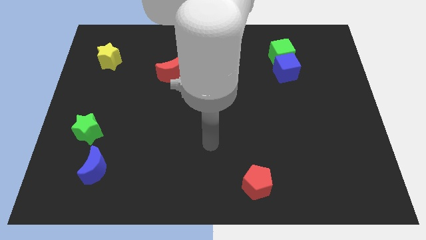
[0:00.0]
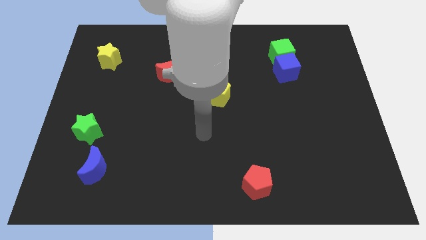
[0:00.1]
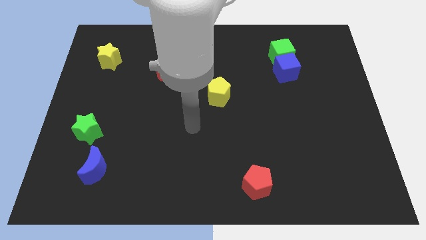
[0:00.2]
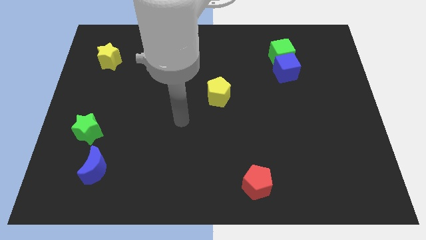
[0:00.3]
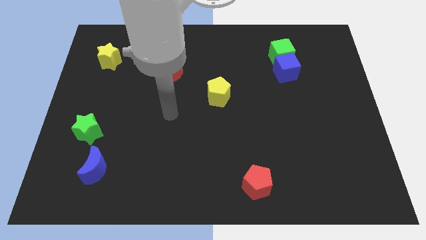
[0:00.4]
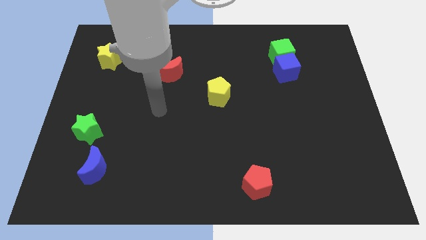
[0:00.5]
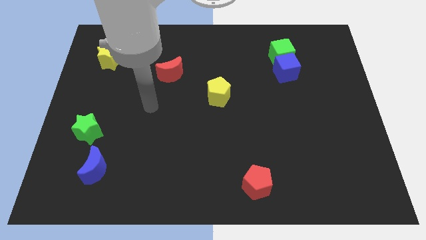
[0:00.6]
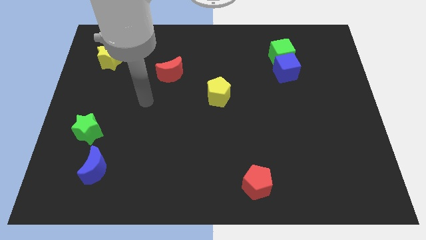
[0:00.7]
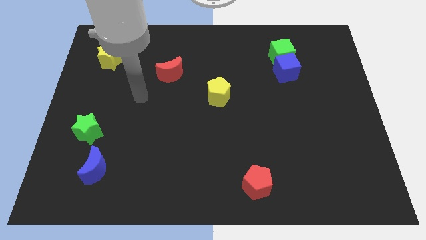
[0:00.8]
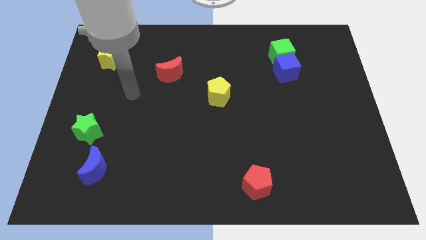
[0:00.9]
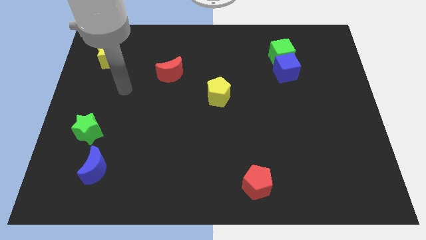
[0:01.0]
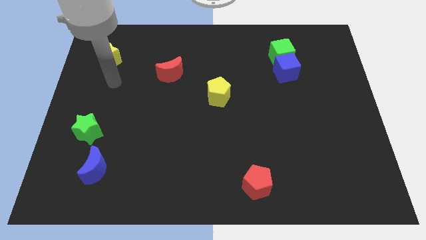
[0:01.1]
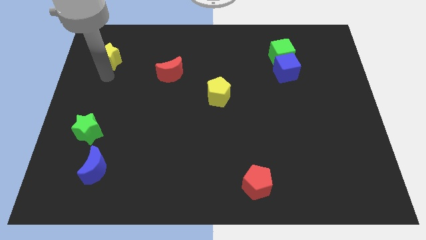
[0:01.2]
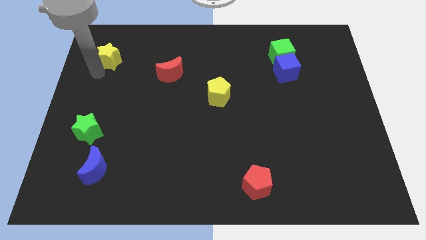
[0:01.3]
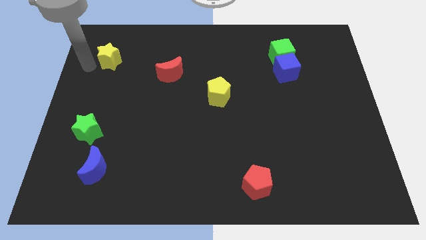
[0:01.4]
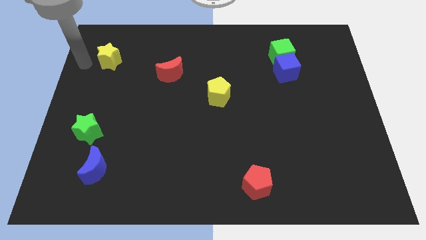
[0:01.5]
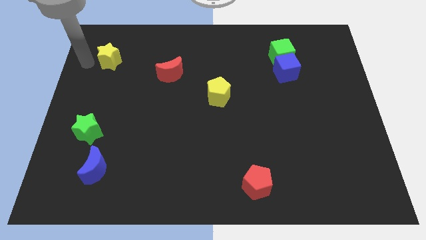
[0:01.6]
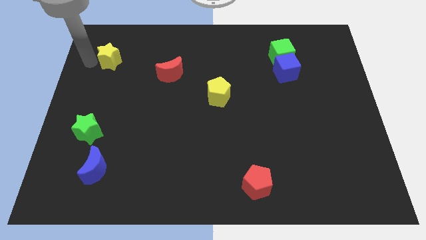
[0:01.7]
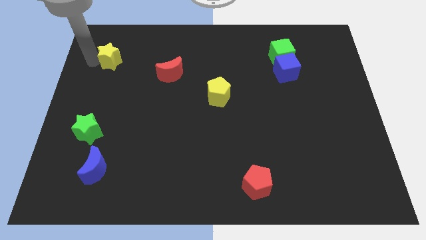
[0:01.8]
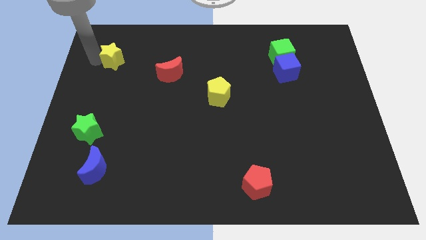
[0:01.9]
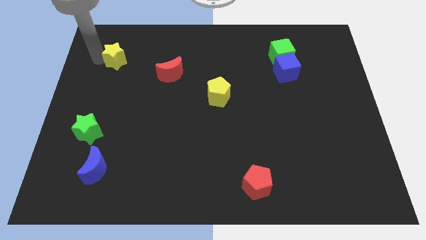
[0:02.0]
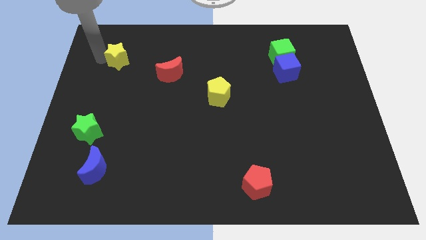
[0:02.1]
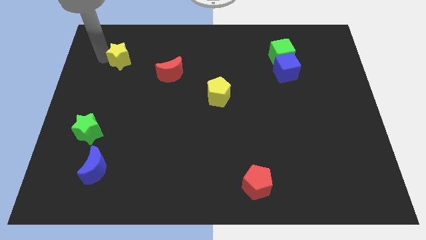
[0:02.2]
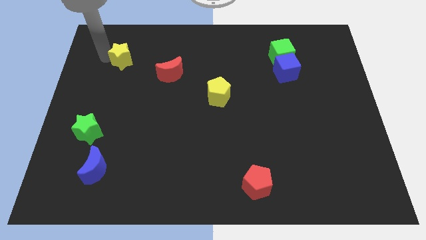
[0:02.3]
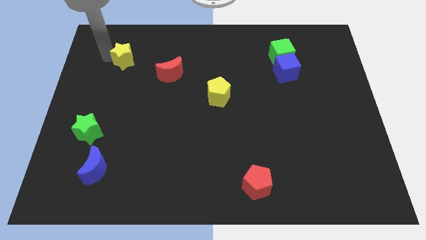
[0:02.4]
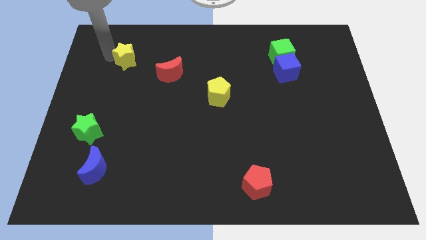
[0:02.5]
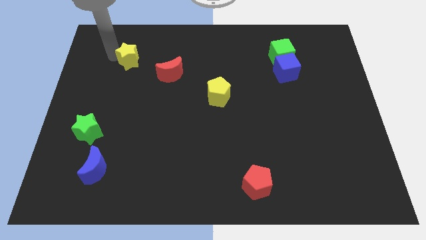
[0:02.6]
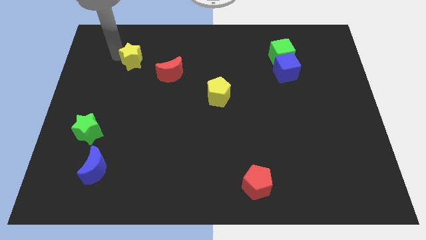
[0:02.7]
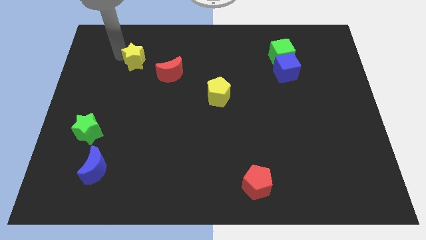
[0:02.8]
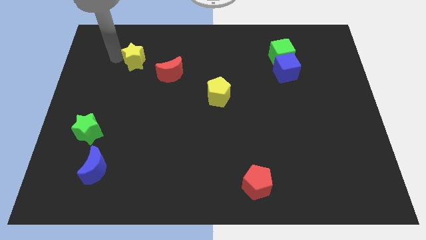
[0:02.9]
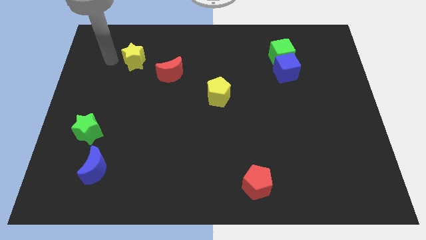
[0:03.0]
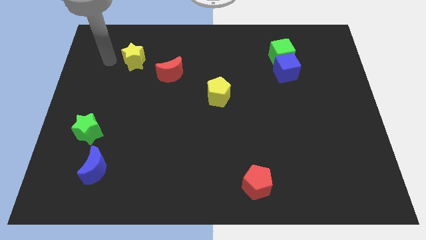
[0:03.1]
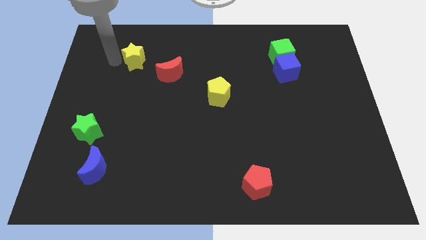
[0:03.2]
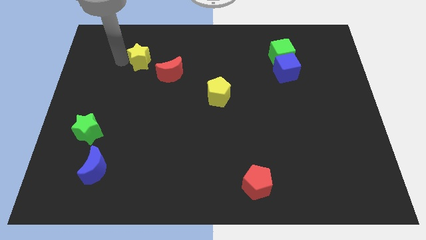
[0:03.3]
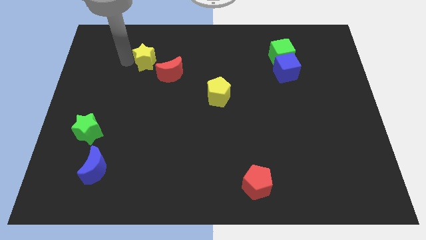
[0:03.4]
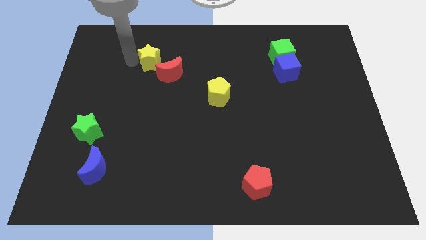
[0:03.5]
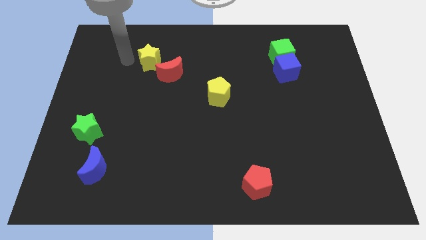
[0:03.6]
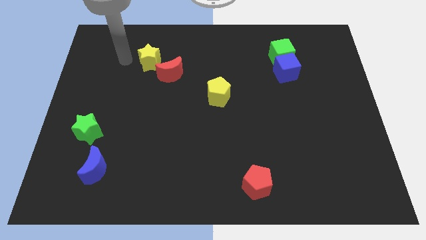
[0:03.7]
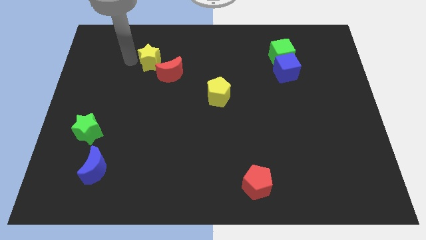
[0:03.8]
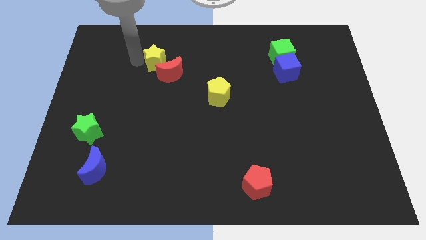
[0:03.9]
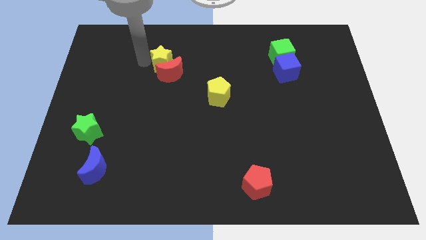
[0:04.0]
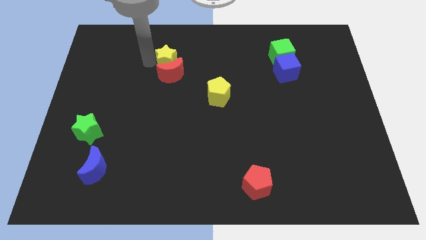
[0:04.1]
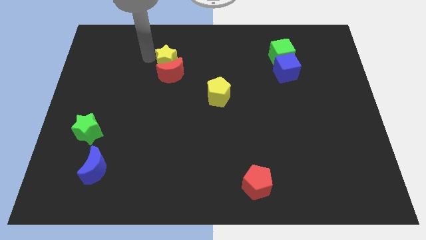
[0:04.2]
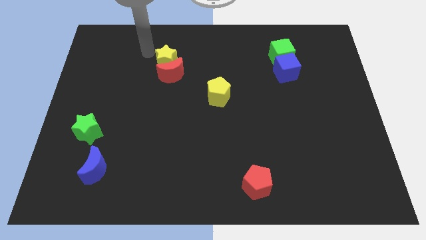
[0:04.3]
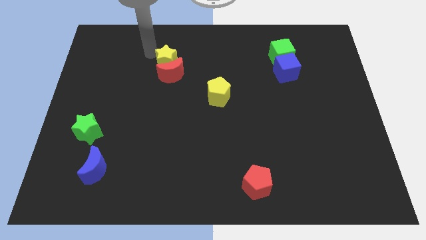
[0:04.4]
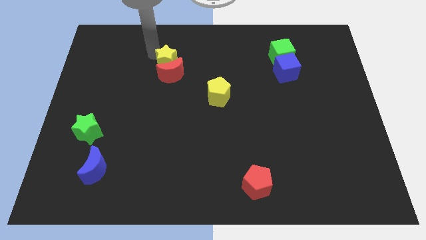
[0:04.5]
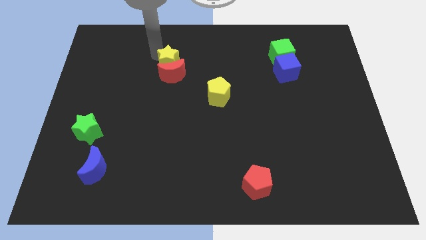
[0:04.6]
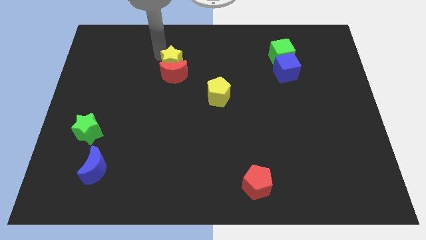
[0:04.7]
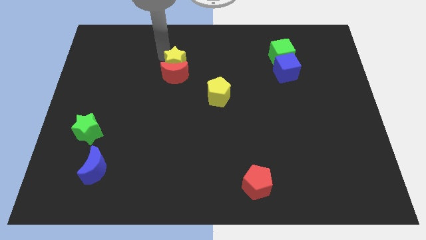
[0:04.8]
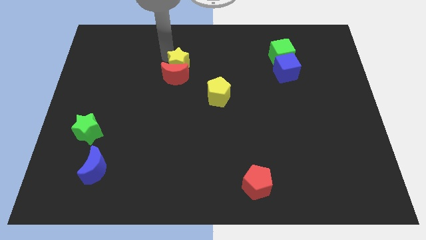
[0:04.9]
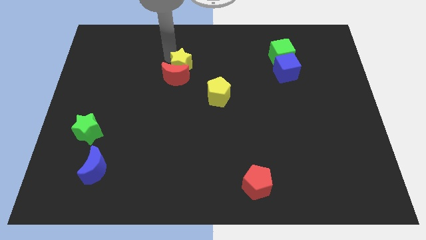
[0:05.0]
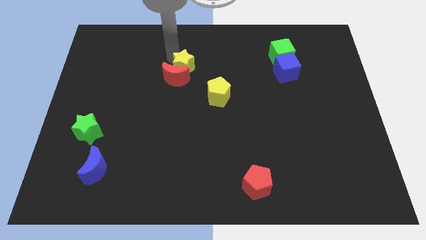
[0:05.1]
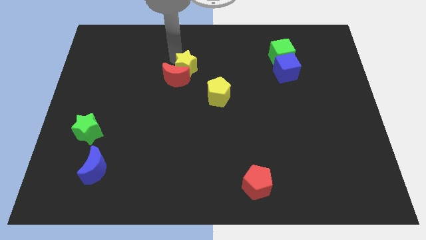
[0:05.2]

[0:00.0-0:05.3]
push the yellow star to the top left of the yellow pentagon

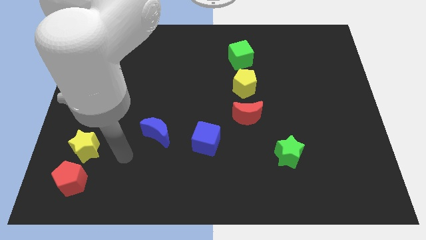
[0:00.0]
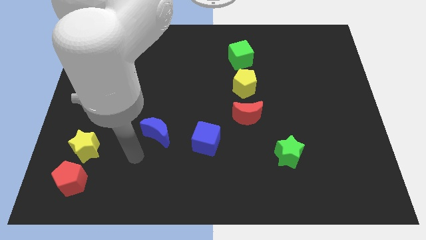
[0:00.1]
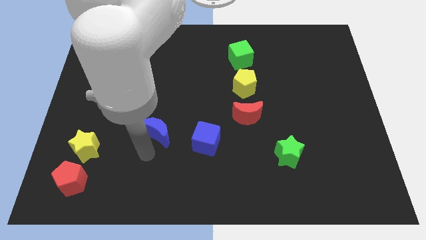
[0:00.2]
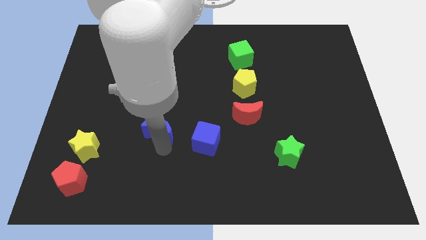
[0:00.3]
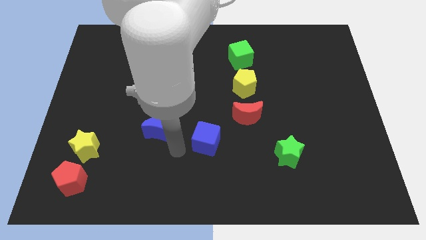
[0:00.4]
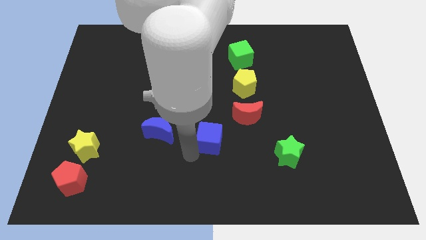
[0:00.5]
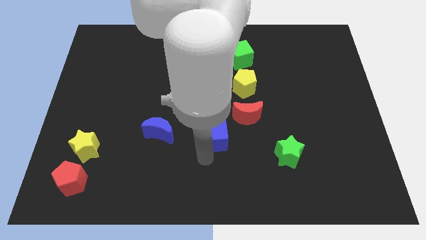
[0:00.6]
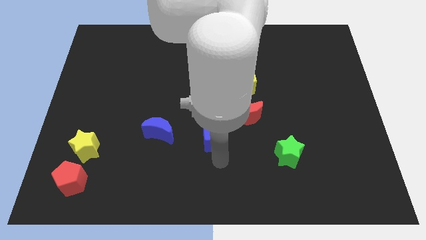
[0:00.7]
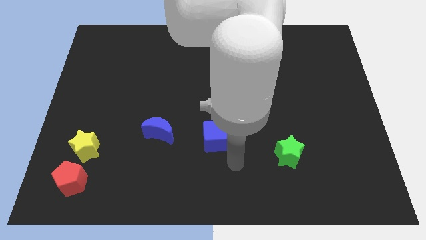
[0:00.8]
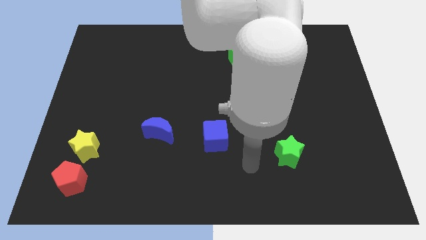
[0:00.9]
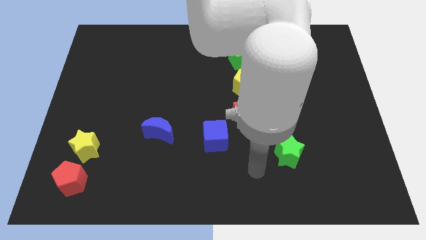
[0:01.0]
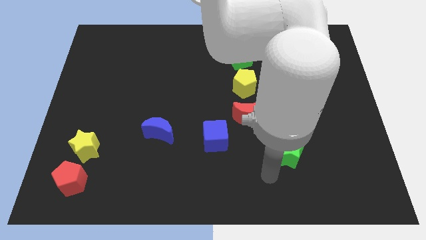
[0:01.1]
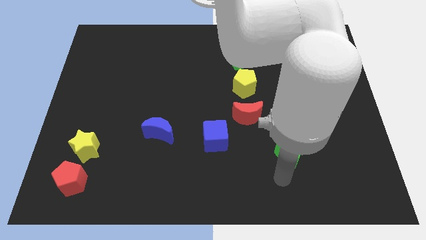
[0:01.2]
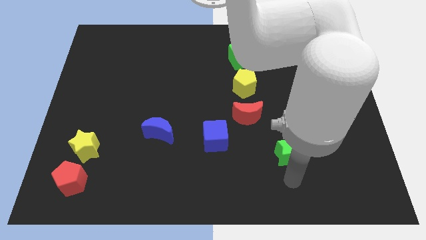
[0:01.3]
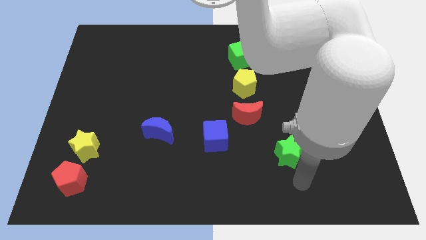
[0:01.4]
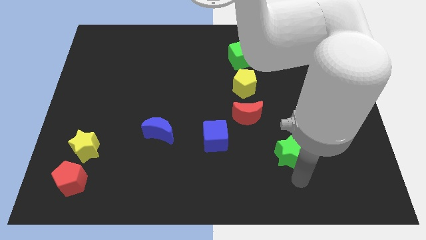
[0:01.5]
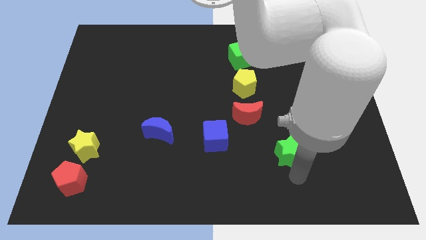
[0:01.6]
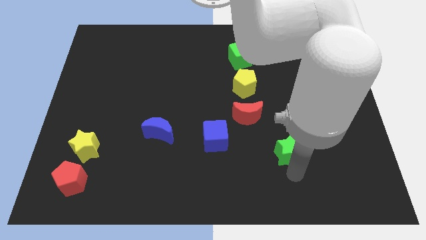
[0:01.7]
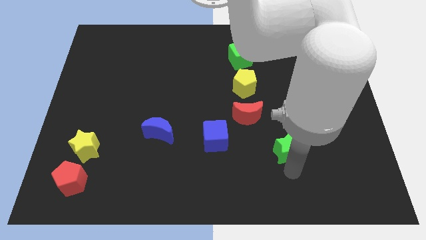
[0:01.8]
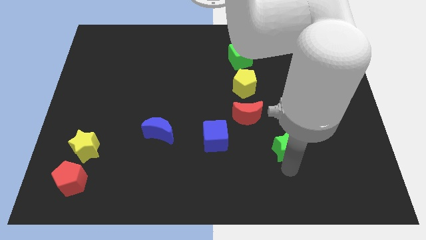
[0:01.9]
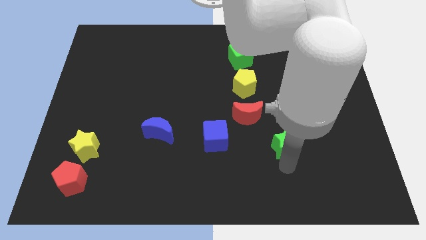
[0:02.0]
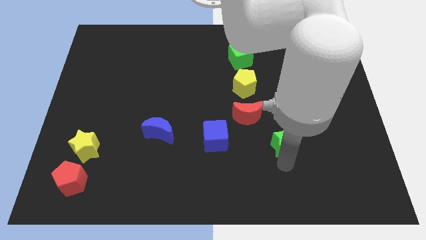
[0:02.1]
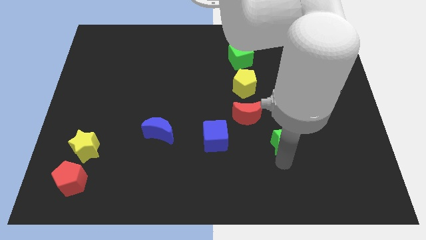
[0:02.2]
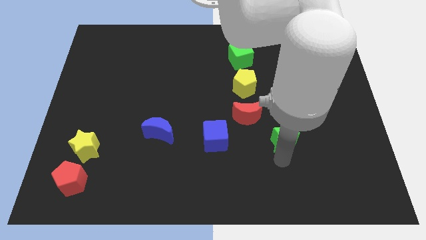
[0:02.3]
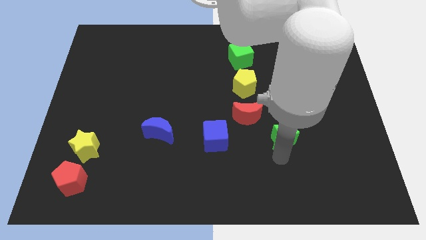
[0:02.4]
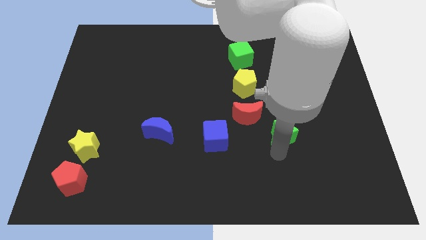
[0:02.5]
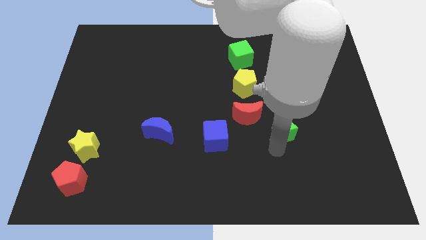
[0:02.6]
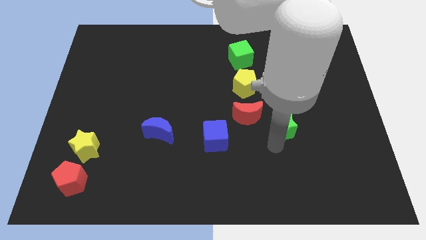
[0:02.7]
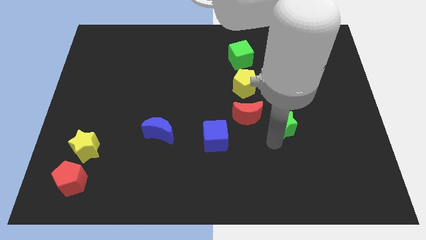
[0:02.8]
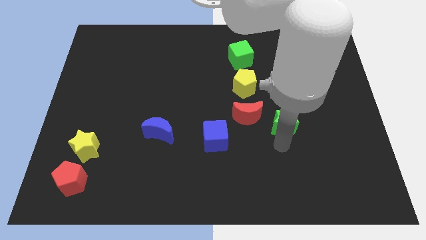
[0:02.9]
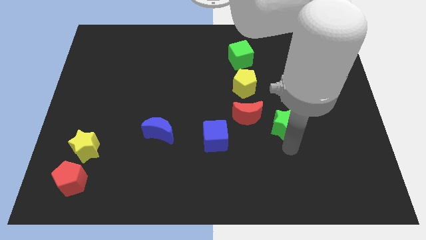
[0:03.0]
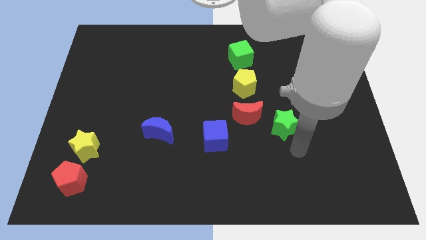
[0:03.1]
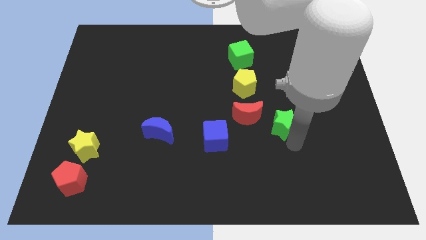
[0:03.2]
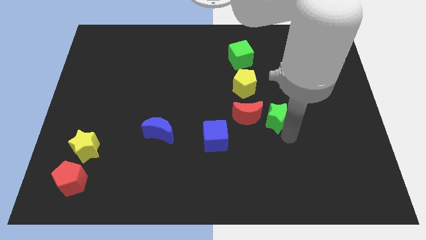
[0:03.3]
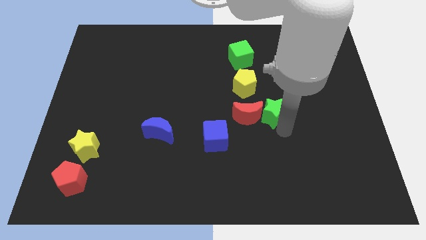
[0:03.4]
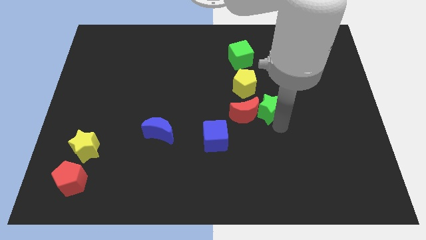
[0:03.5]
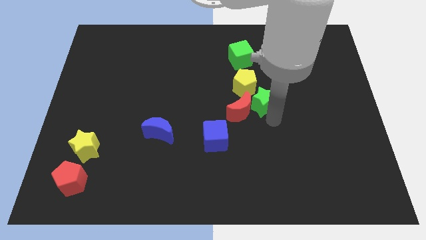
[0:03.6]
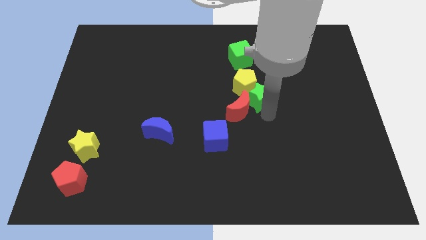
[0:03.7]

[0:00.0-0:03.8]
put the green star above the red moon
